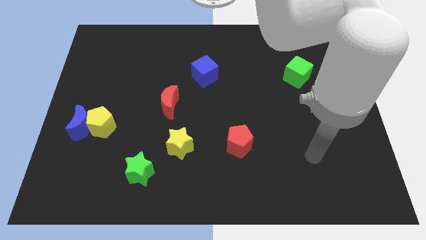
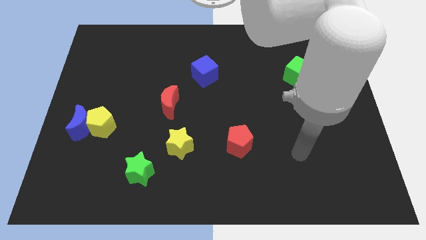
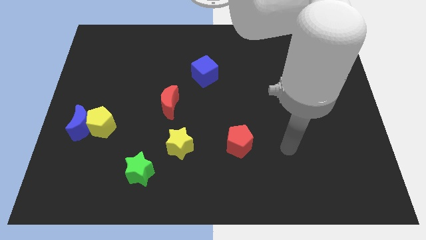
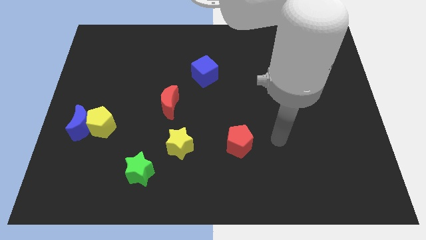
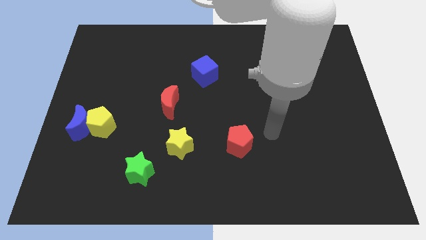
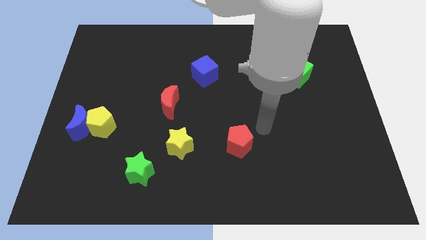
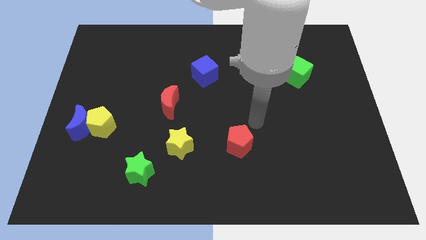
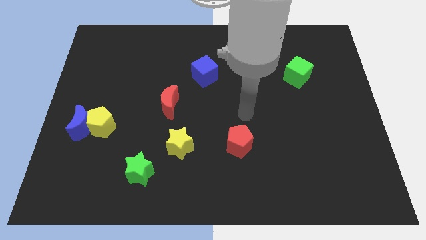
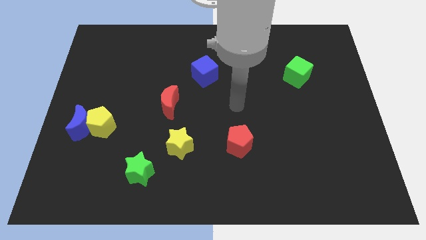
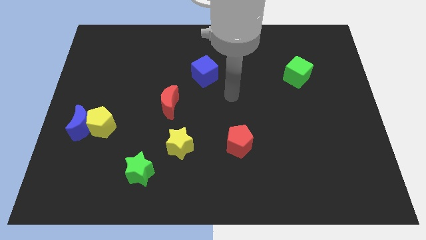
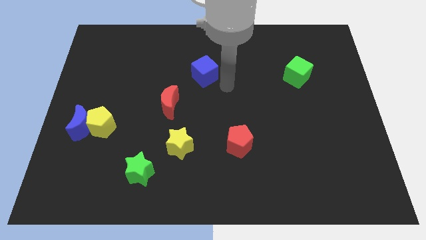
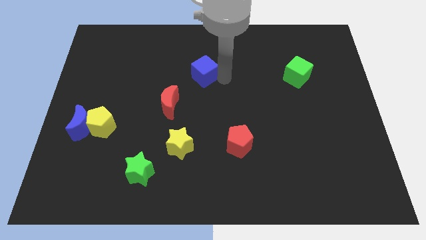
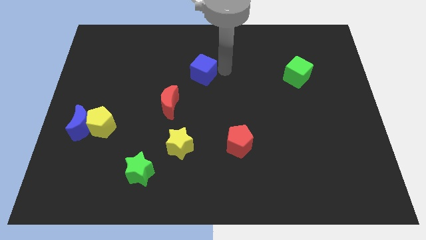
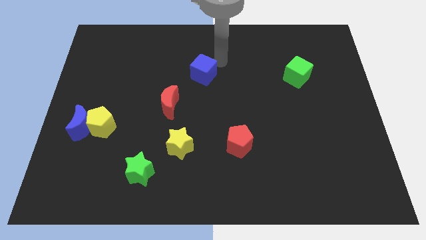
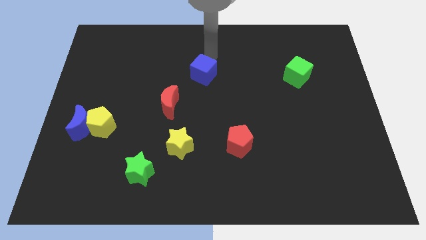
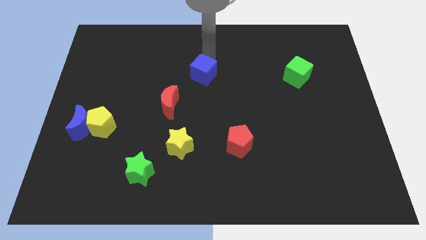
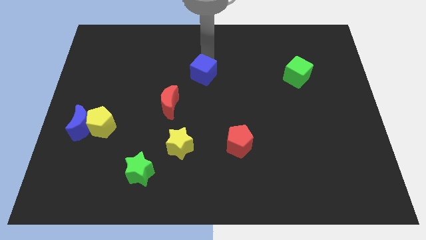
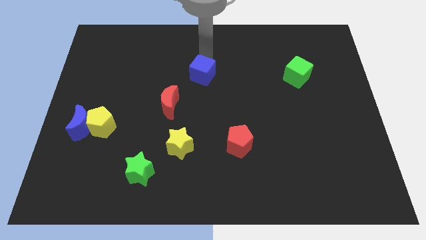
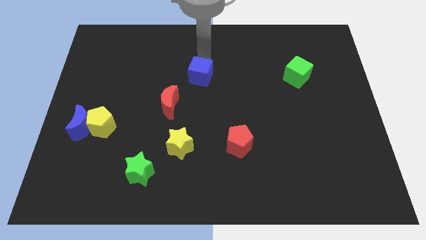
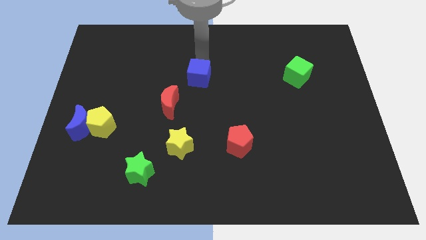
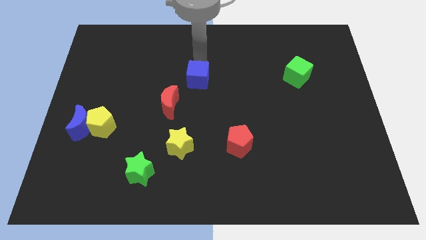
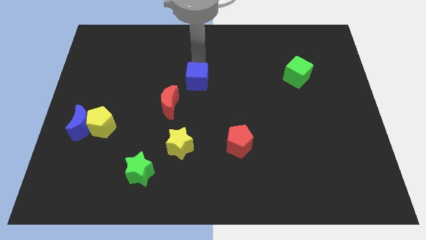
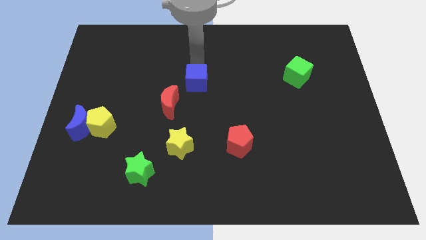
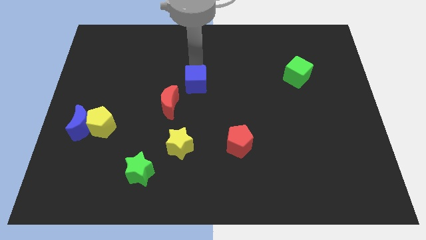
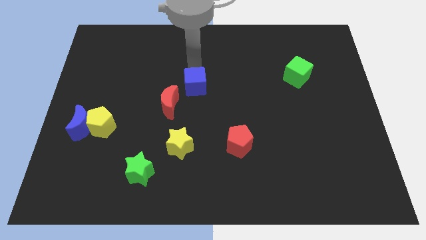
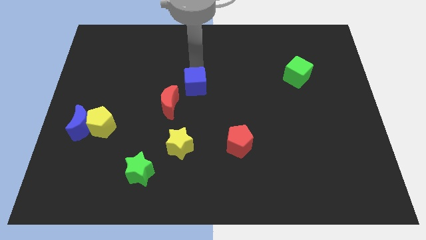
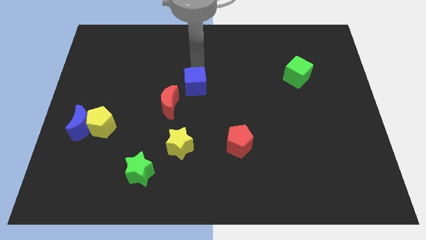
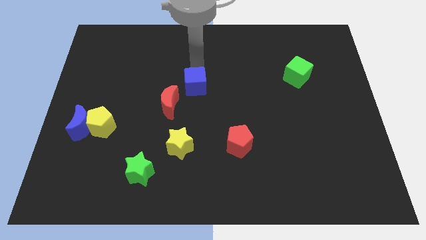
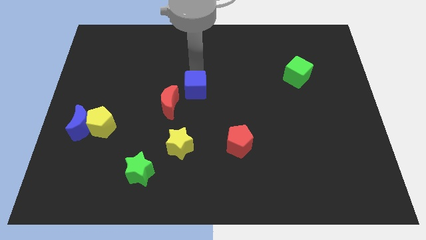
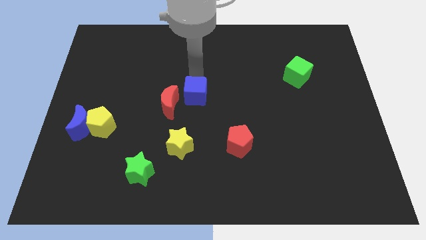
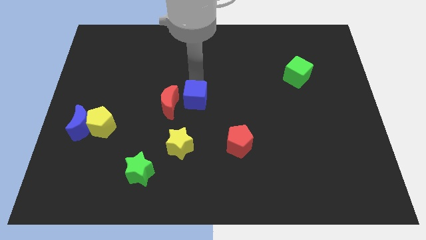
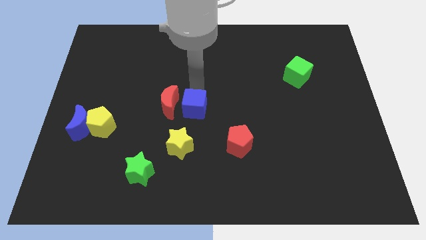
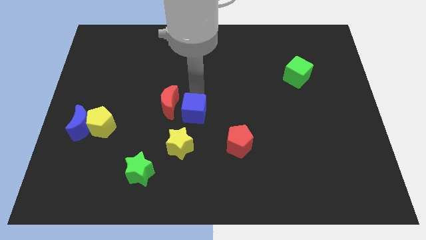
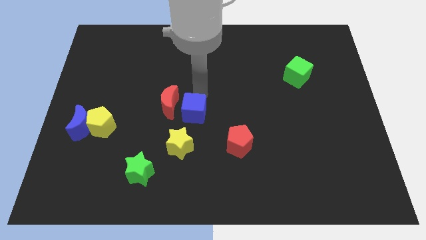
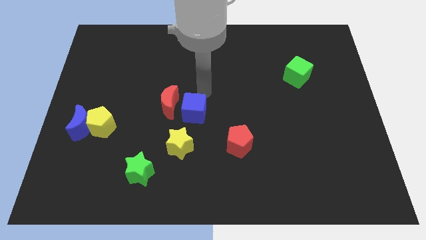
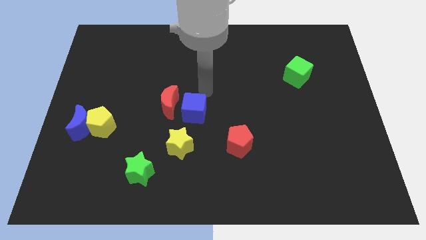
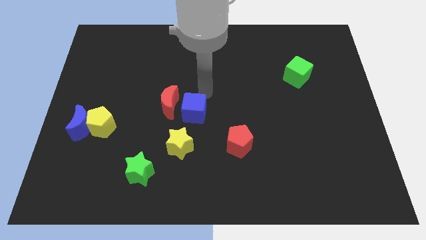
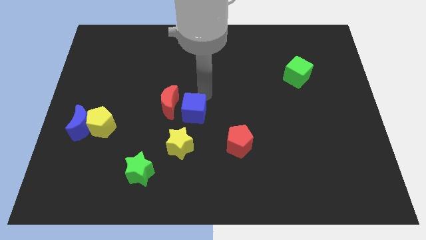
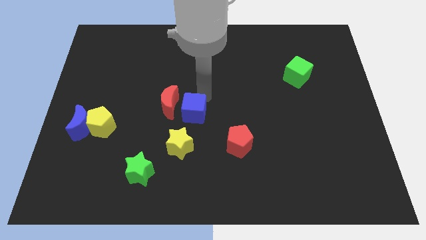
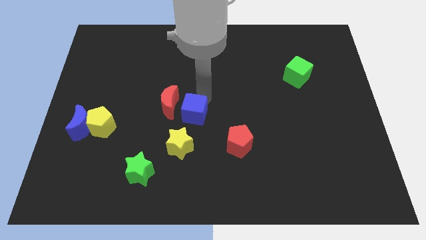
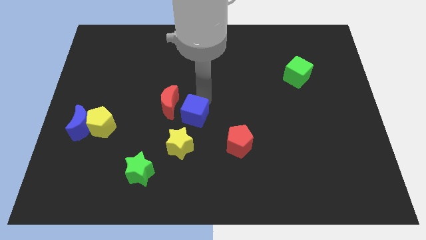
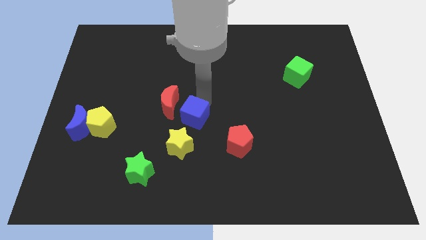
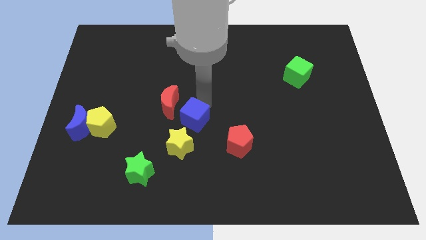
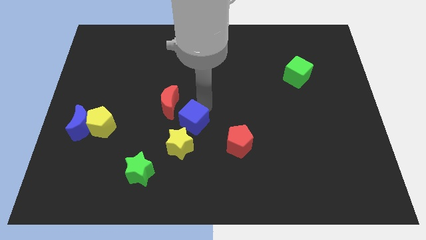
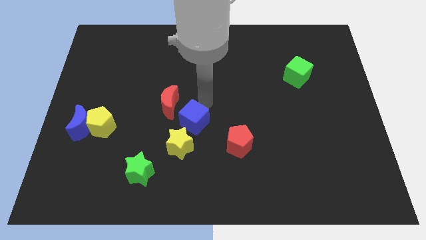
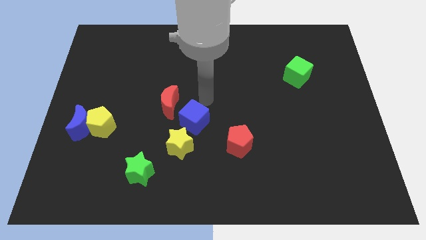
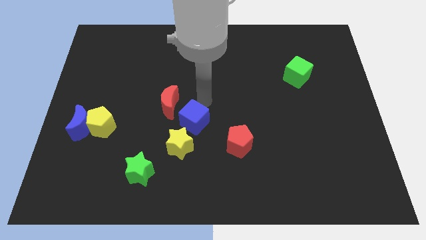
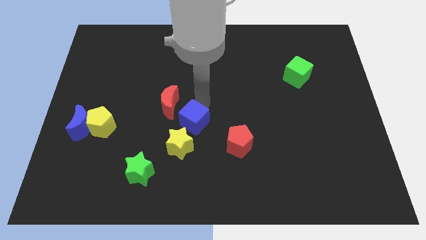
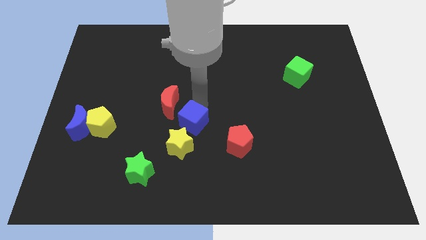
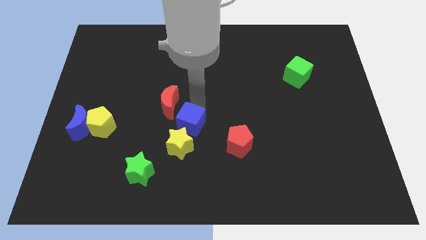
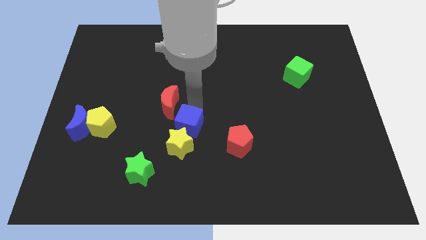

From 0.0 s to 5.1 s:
push the blue cube close to the yellow star

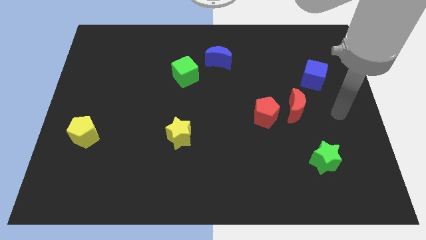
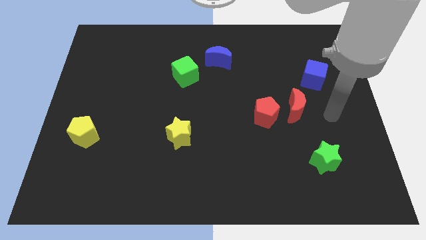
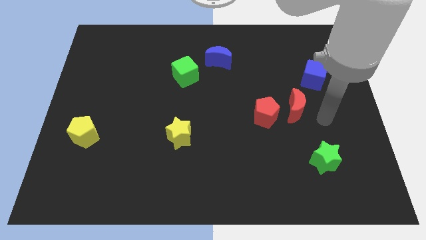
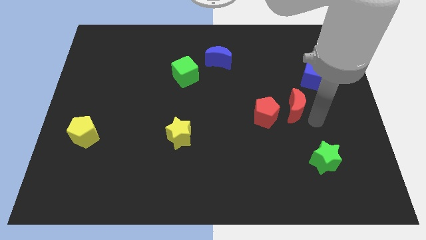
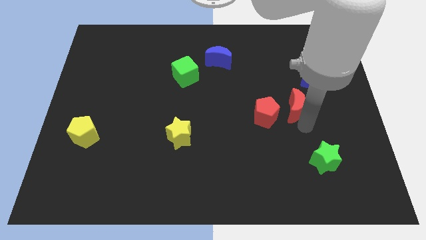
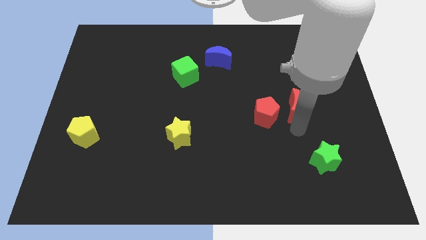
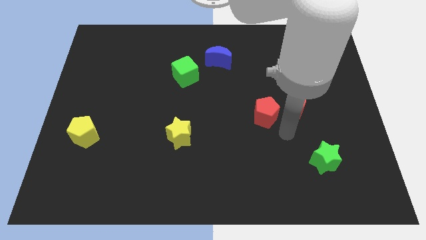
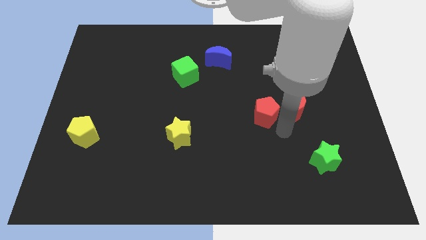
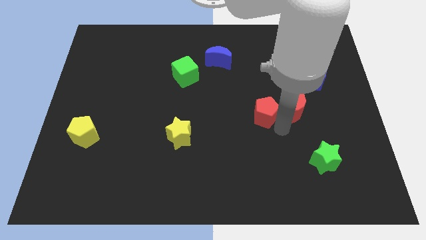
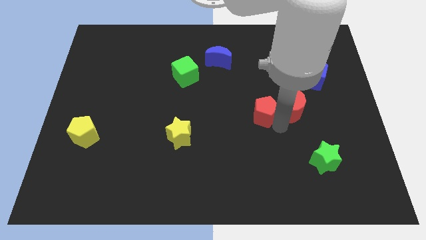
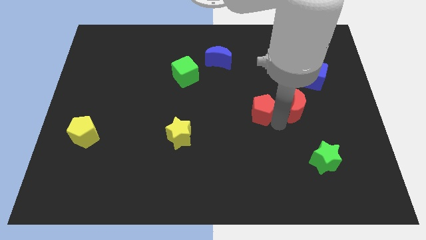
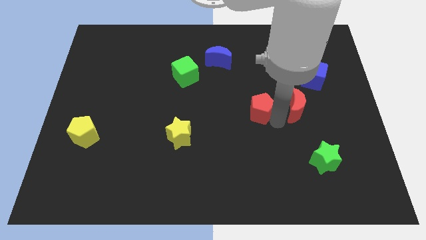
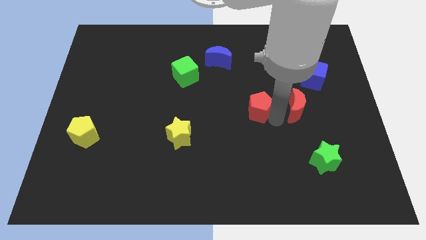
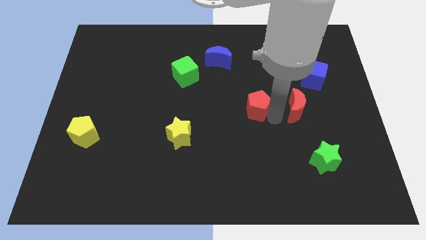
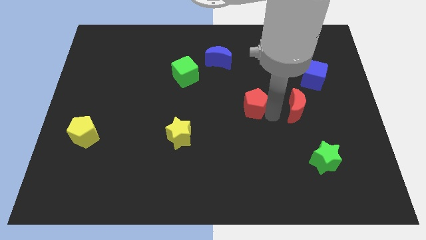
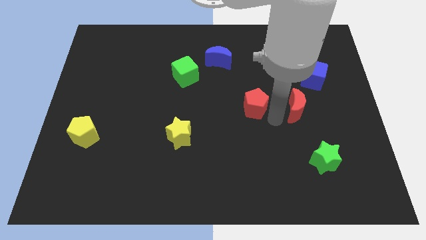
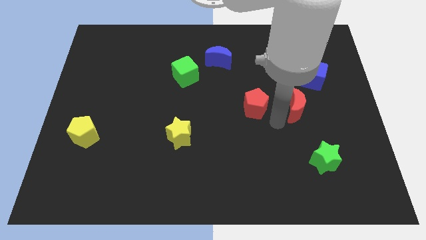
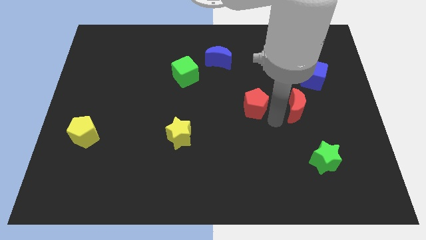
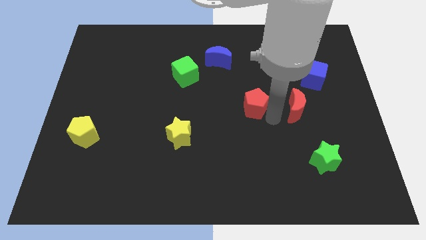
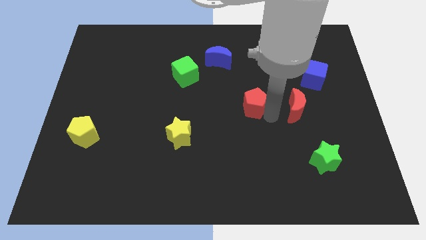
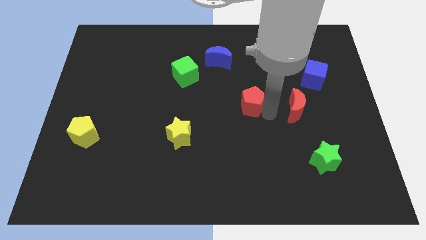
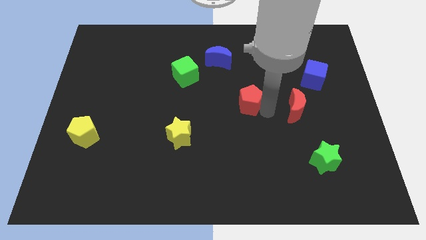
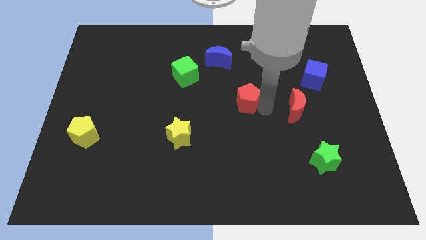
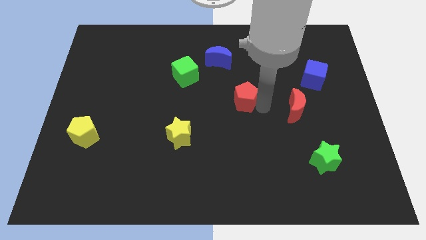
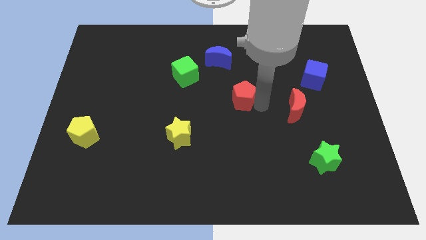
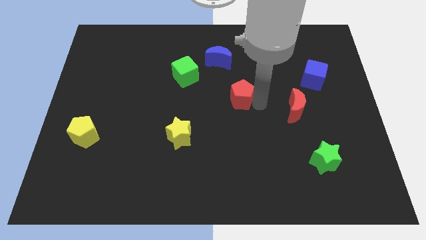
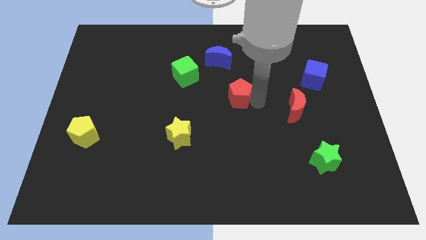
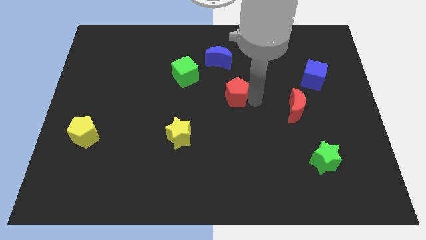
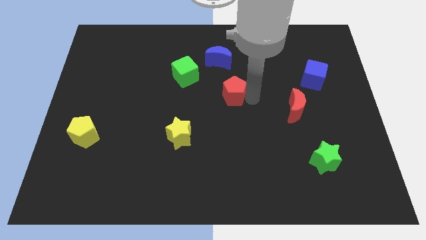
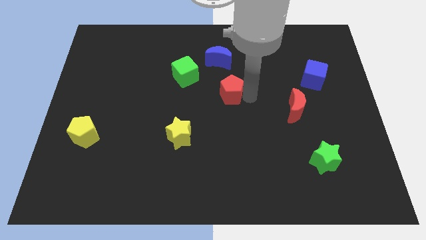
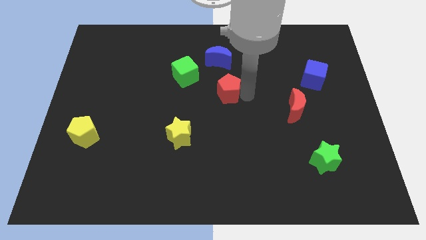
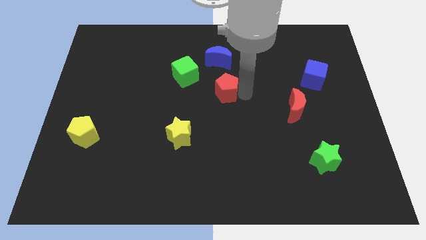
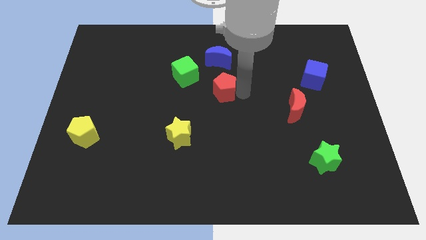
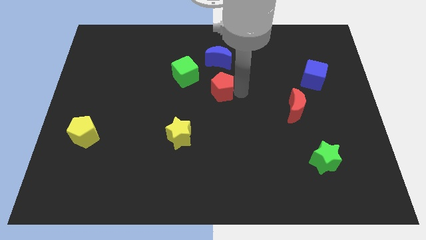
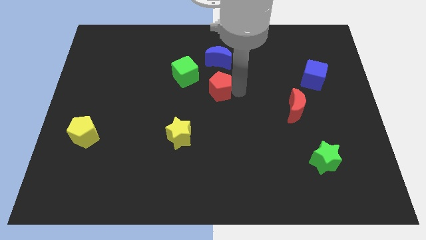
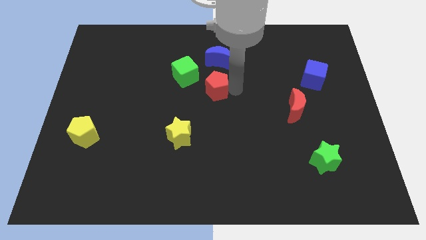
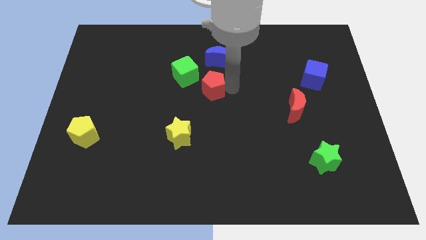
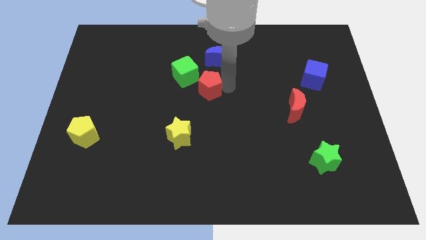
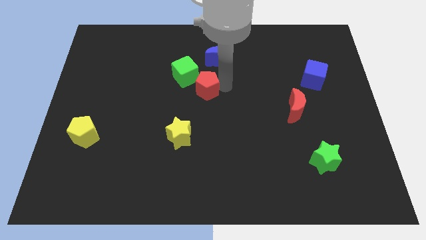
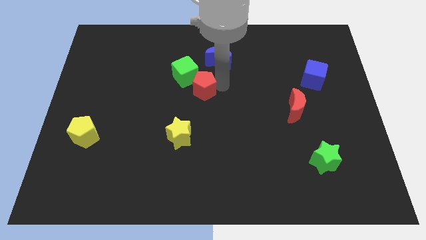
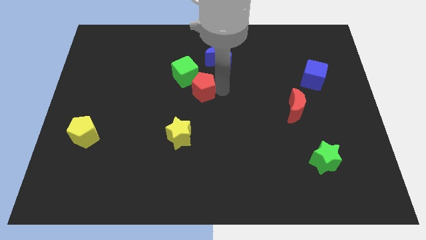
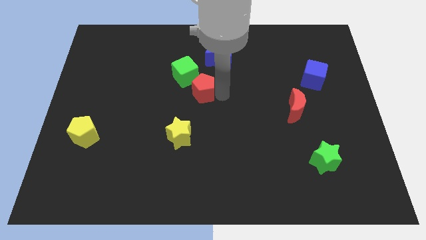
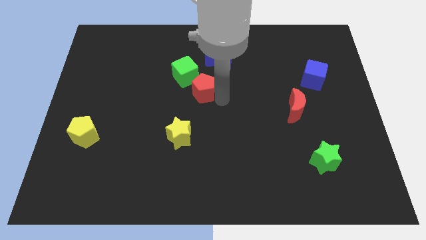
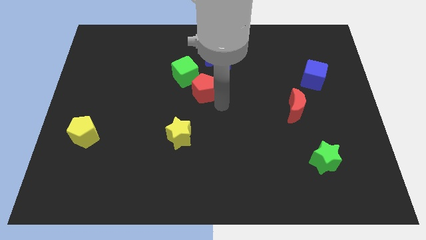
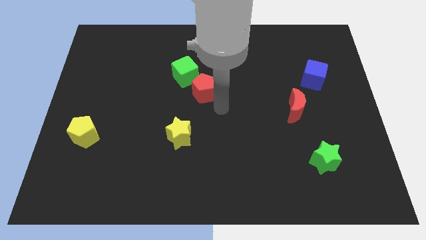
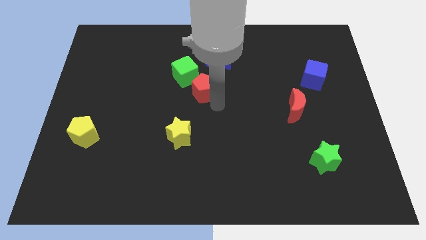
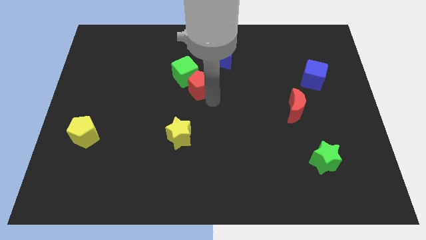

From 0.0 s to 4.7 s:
push the red pentagon close to the green cube
